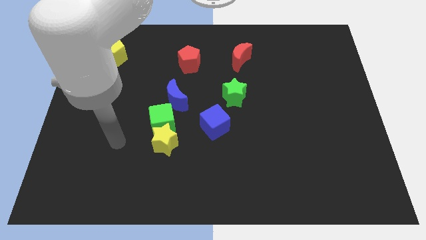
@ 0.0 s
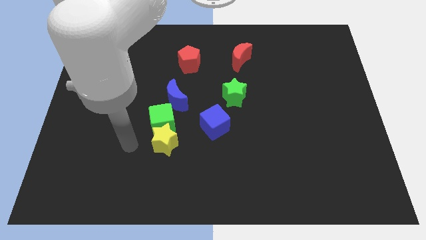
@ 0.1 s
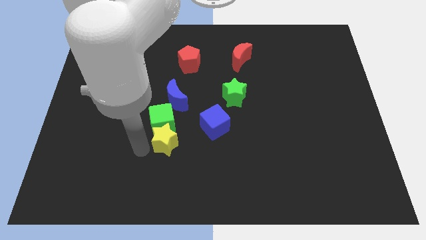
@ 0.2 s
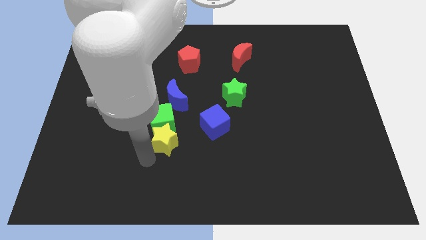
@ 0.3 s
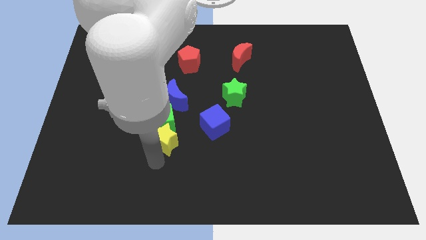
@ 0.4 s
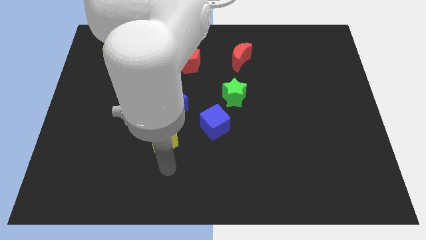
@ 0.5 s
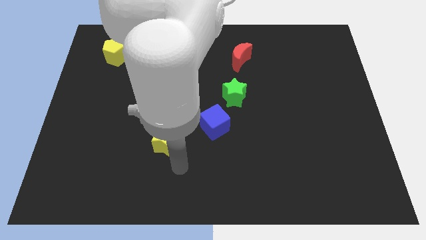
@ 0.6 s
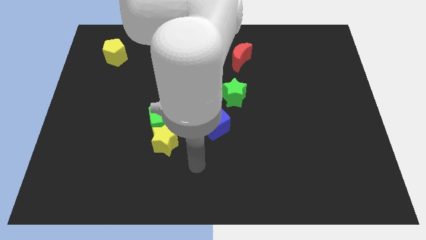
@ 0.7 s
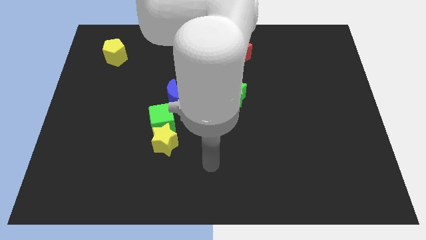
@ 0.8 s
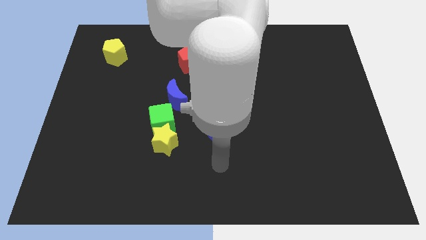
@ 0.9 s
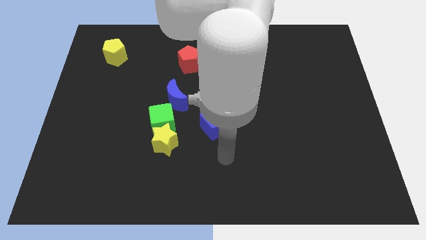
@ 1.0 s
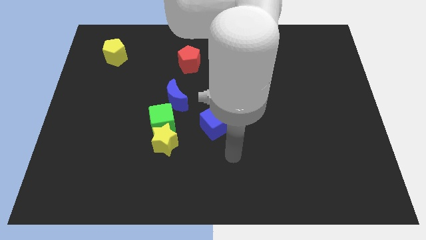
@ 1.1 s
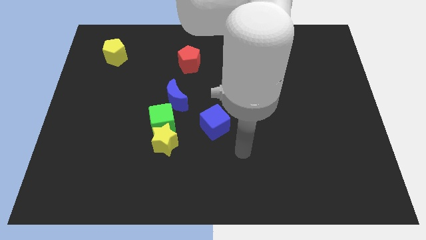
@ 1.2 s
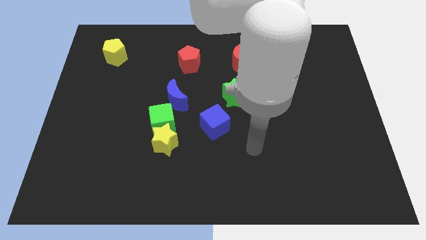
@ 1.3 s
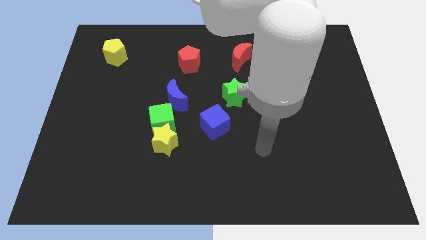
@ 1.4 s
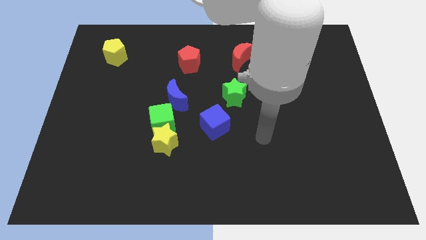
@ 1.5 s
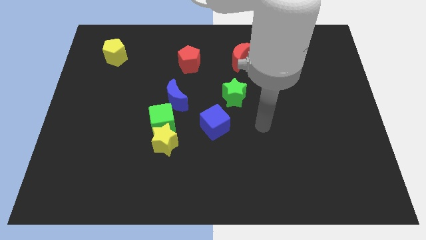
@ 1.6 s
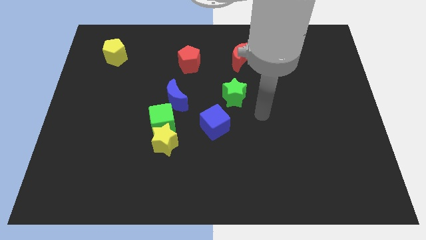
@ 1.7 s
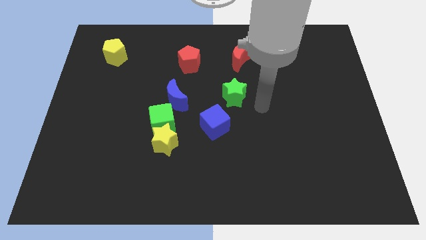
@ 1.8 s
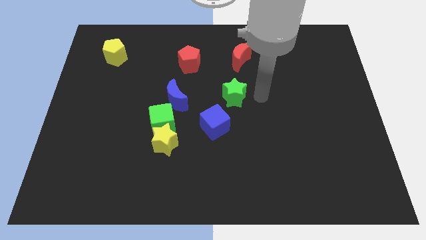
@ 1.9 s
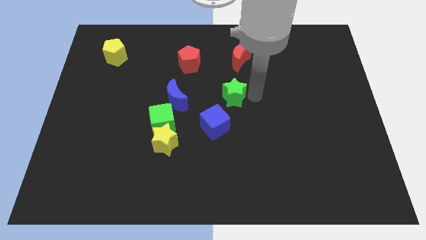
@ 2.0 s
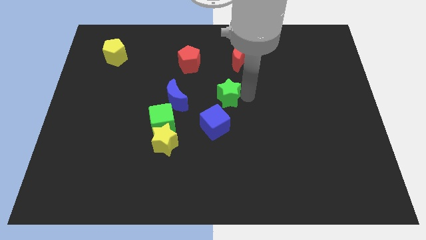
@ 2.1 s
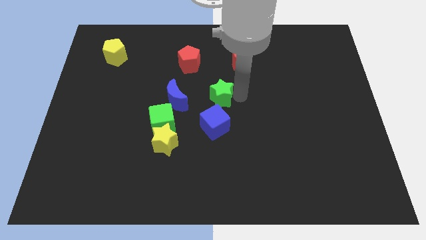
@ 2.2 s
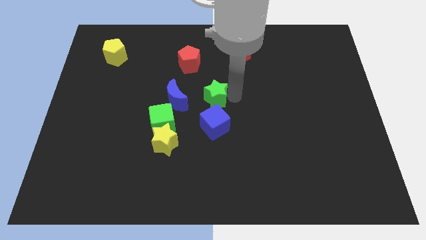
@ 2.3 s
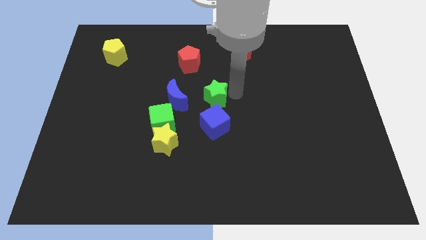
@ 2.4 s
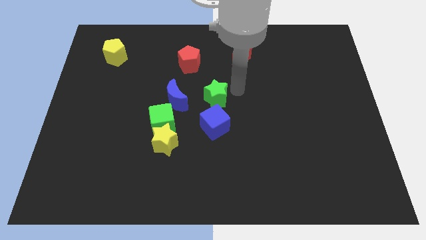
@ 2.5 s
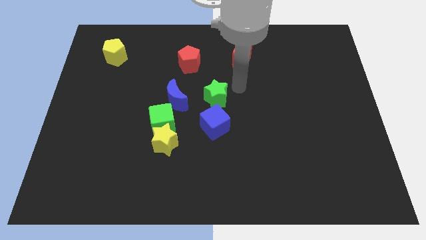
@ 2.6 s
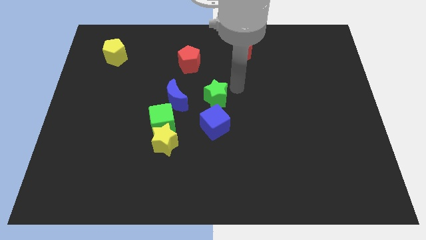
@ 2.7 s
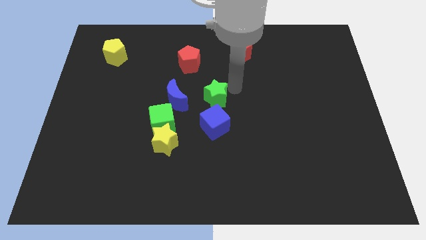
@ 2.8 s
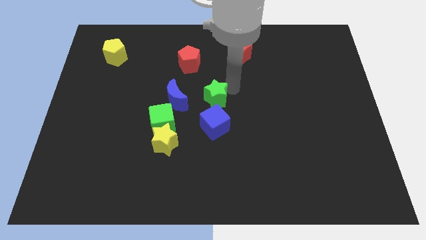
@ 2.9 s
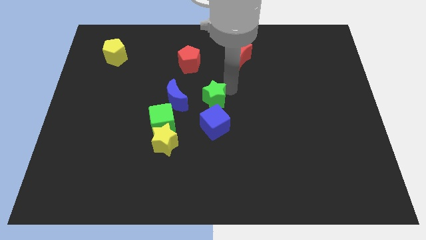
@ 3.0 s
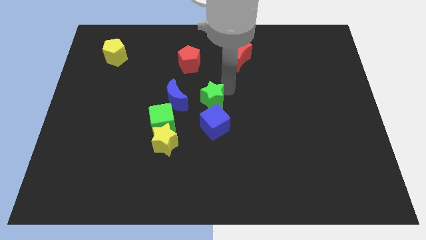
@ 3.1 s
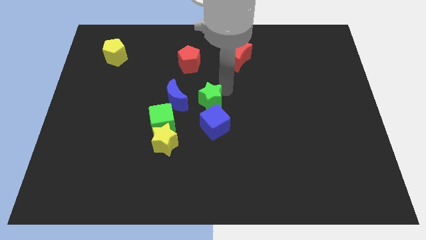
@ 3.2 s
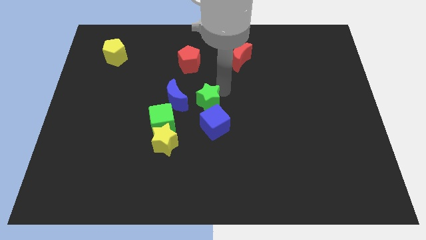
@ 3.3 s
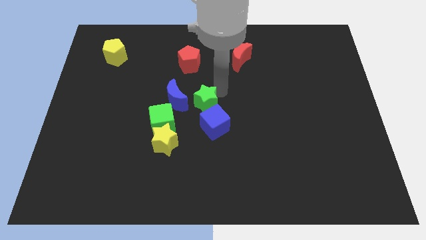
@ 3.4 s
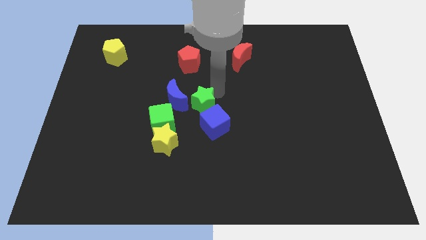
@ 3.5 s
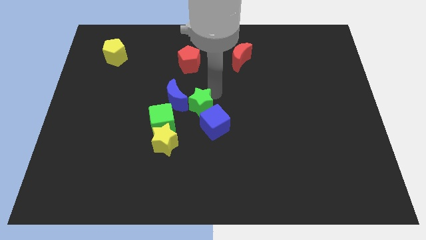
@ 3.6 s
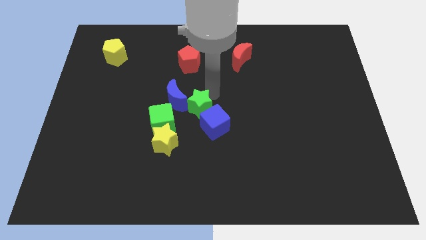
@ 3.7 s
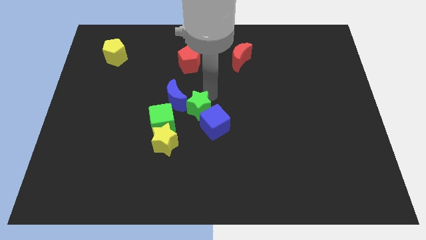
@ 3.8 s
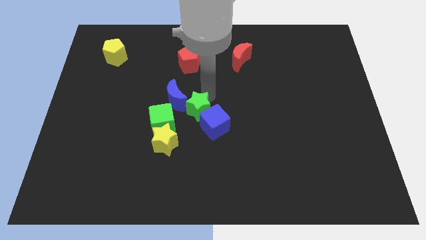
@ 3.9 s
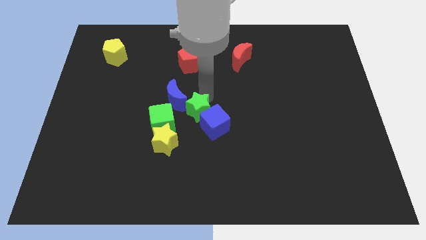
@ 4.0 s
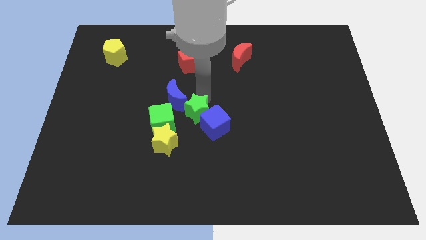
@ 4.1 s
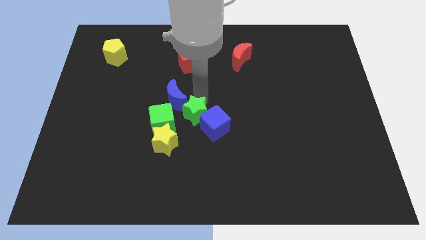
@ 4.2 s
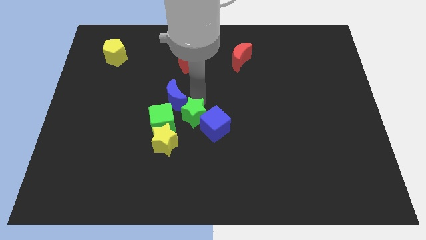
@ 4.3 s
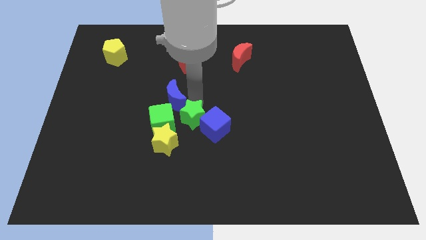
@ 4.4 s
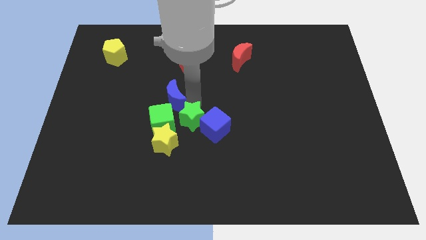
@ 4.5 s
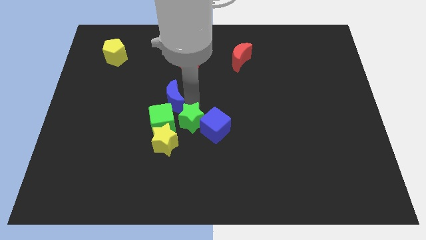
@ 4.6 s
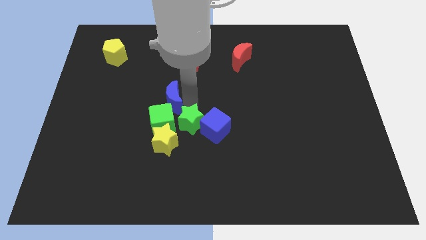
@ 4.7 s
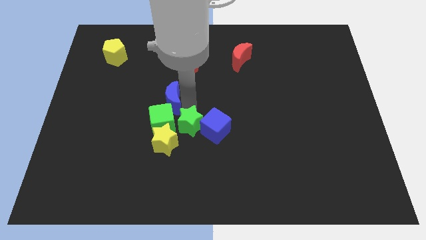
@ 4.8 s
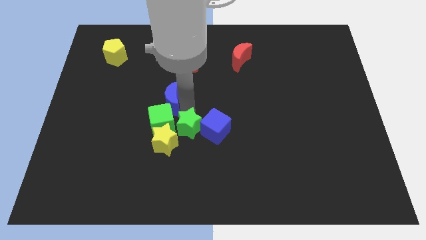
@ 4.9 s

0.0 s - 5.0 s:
put the green star towards the yellow star

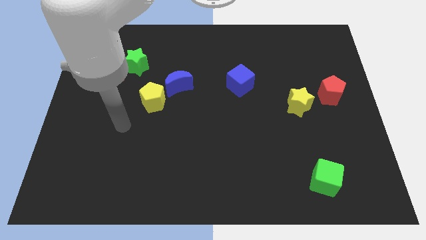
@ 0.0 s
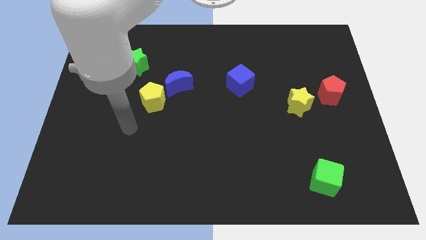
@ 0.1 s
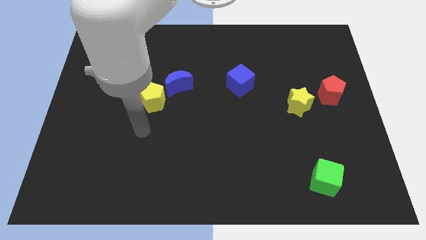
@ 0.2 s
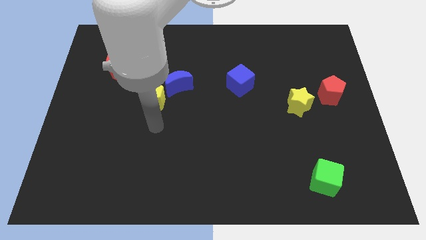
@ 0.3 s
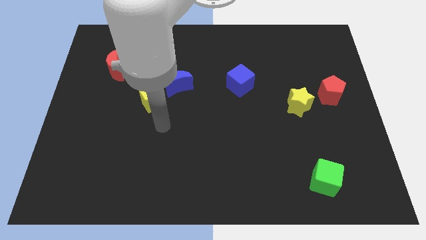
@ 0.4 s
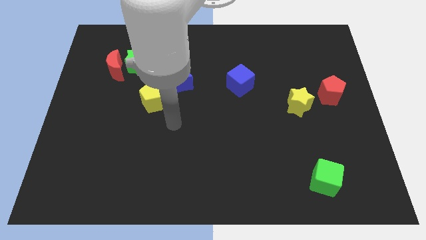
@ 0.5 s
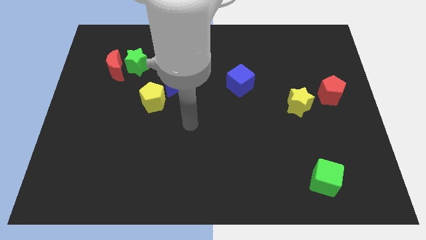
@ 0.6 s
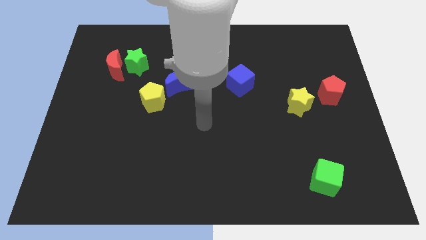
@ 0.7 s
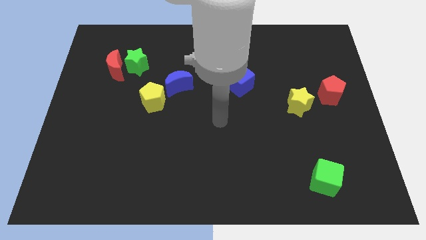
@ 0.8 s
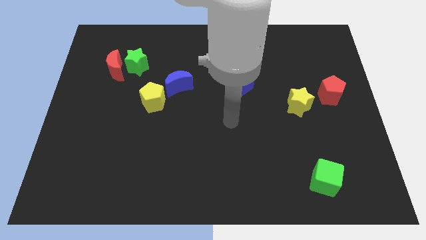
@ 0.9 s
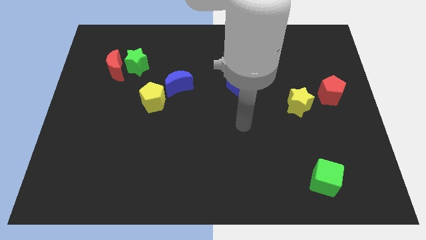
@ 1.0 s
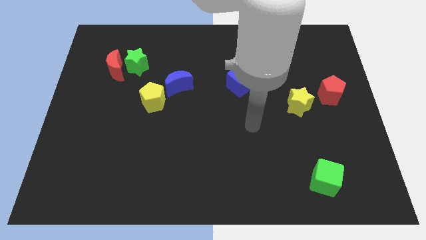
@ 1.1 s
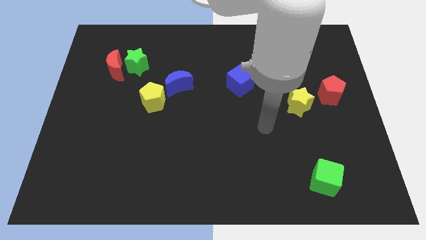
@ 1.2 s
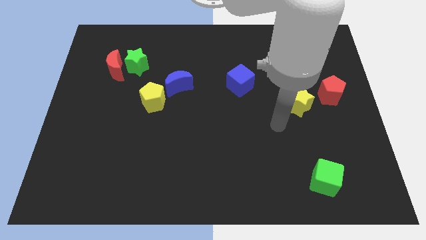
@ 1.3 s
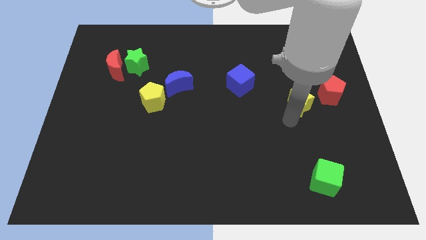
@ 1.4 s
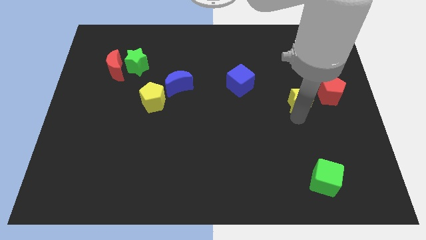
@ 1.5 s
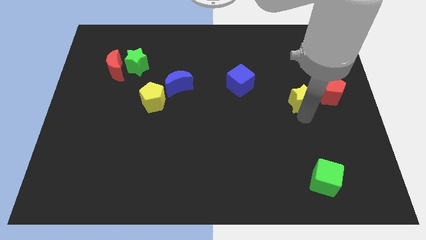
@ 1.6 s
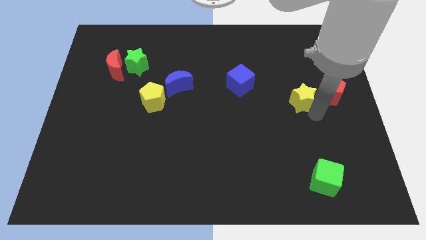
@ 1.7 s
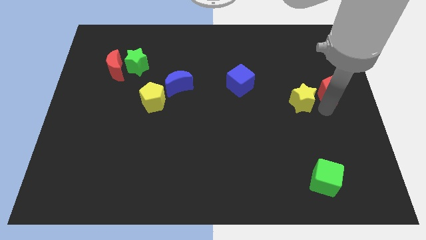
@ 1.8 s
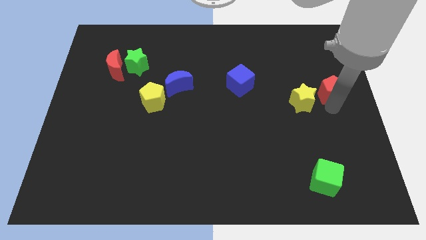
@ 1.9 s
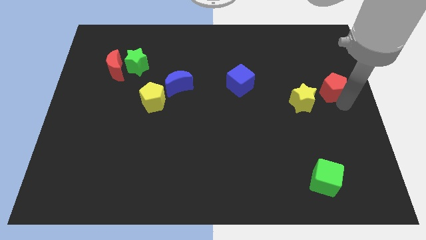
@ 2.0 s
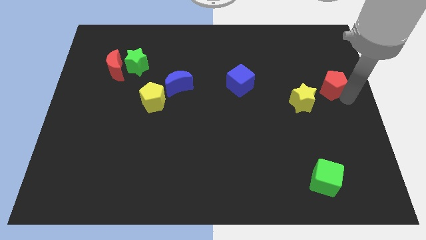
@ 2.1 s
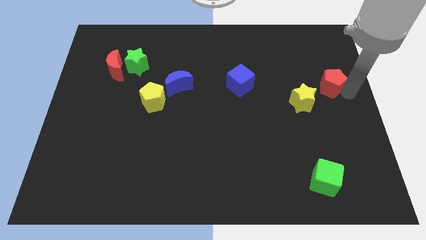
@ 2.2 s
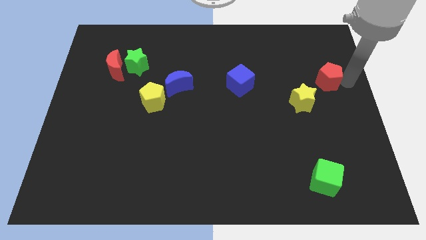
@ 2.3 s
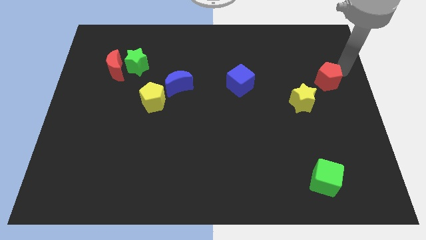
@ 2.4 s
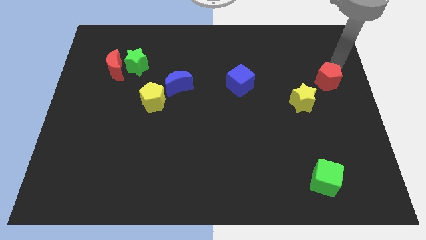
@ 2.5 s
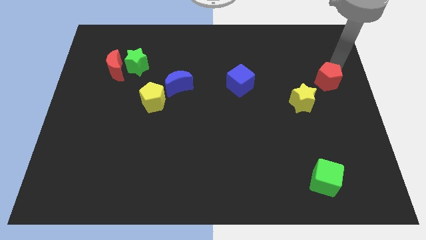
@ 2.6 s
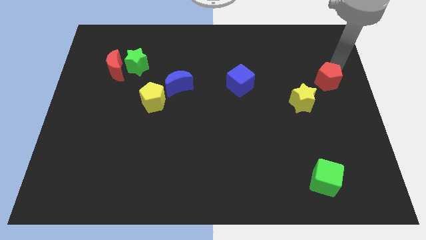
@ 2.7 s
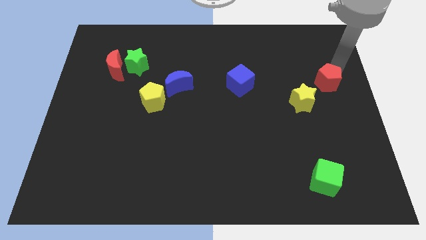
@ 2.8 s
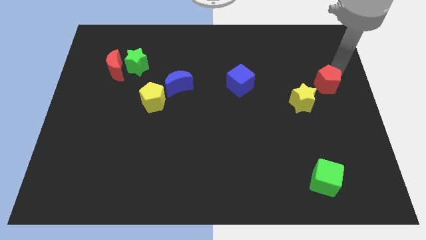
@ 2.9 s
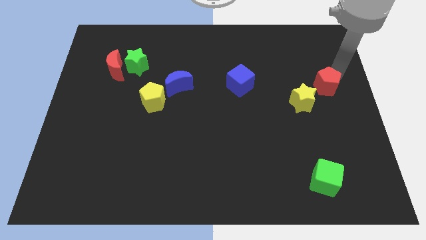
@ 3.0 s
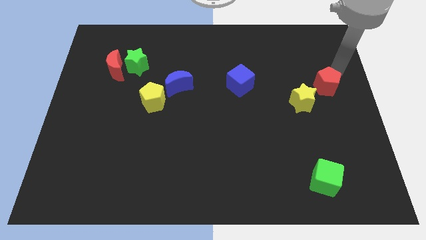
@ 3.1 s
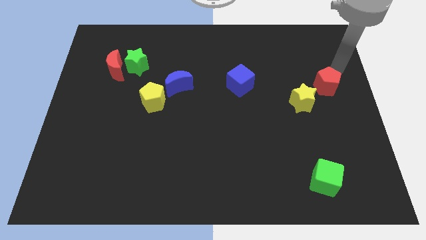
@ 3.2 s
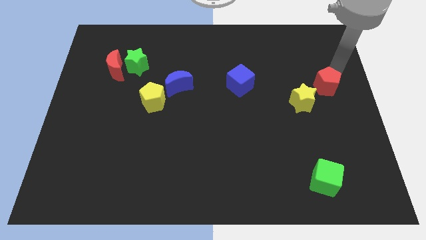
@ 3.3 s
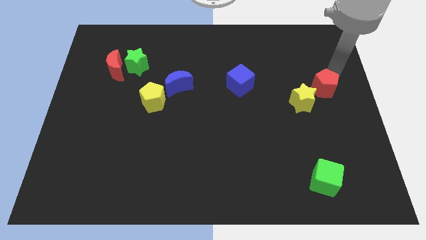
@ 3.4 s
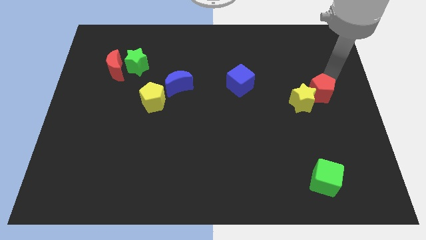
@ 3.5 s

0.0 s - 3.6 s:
put the red pentagon close to the yellow star
